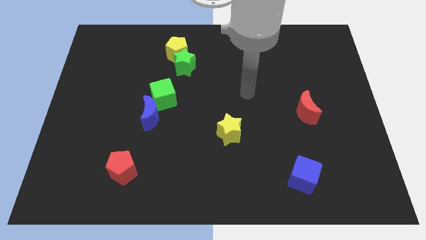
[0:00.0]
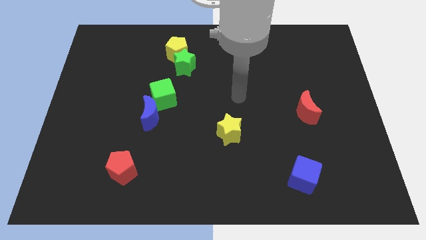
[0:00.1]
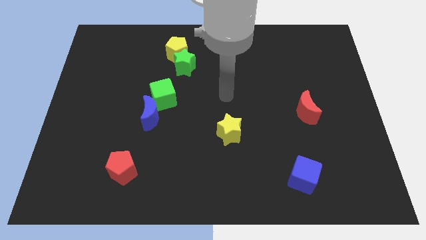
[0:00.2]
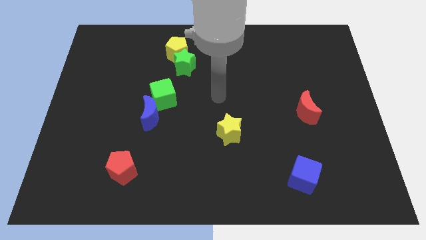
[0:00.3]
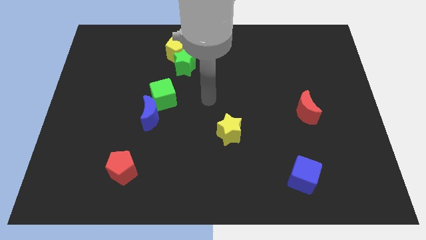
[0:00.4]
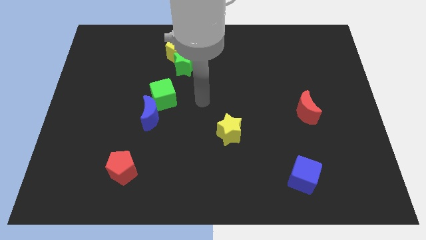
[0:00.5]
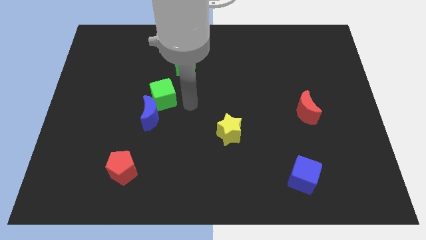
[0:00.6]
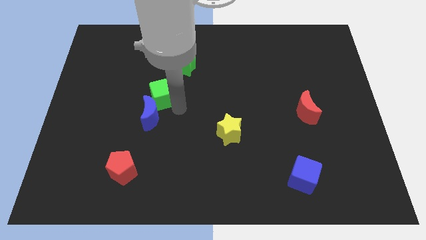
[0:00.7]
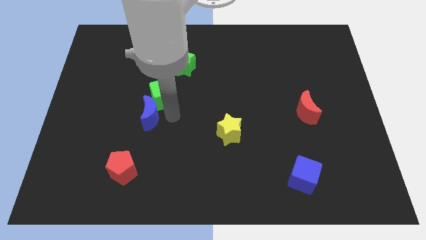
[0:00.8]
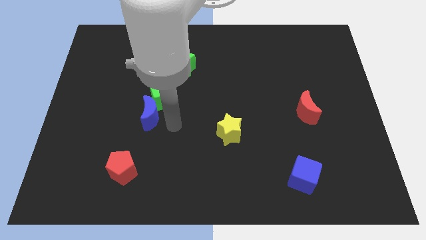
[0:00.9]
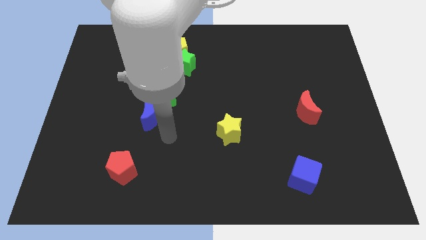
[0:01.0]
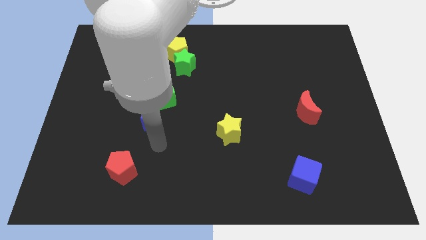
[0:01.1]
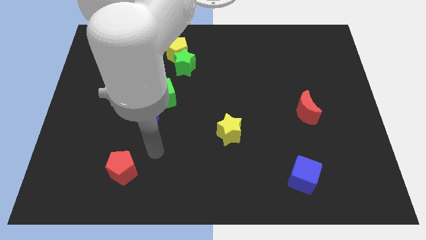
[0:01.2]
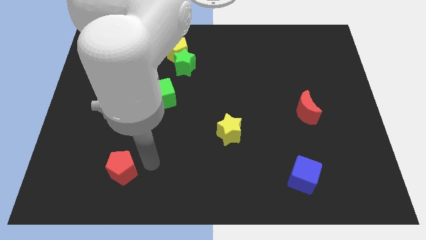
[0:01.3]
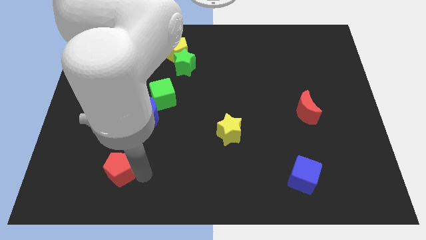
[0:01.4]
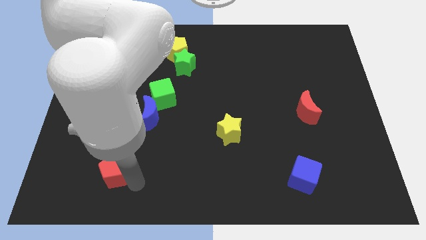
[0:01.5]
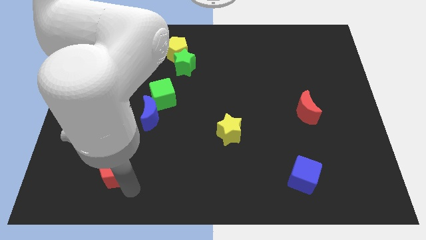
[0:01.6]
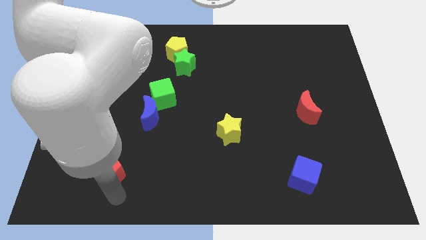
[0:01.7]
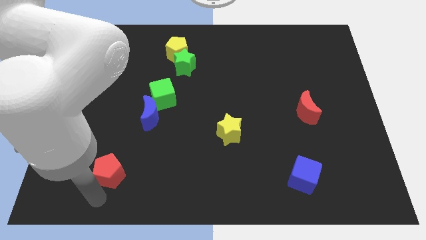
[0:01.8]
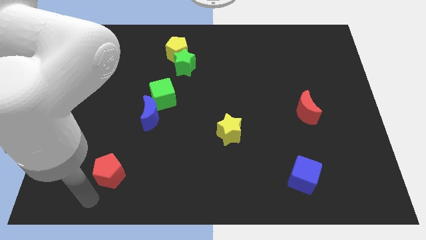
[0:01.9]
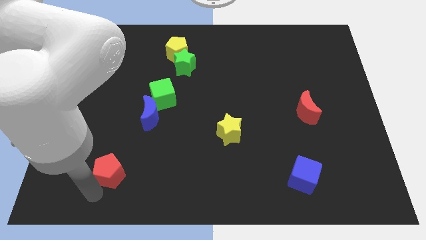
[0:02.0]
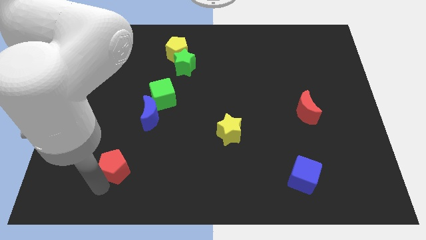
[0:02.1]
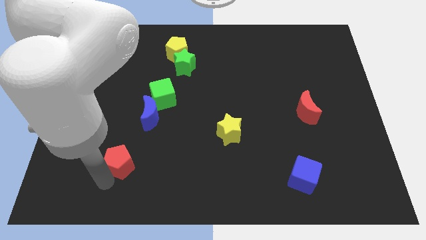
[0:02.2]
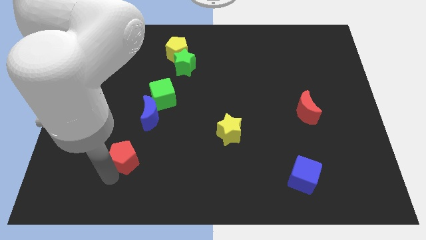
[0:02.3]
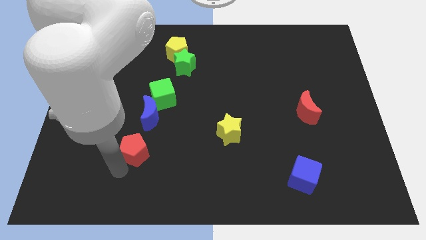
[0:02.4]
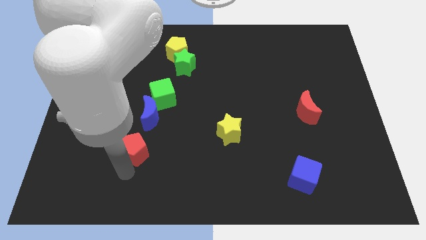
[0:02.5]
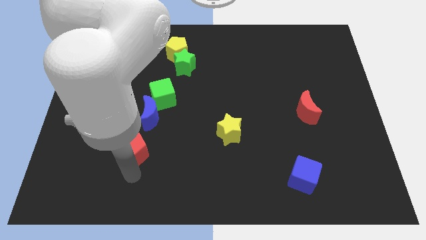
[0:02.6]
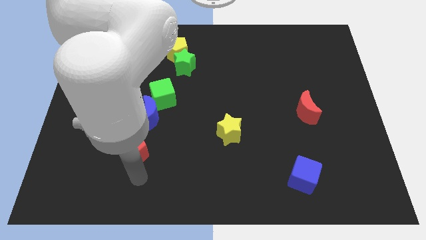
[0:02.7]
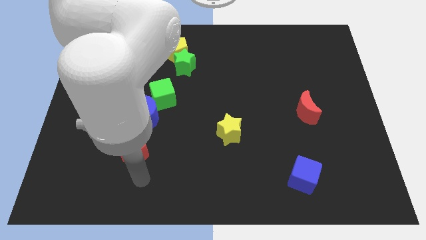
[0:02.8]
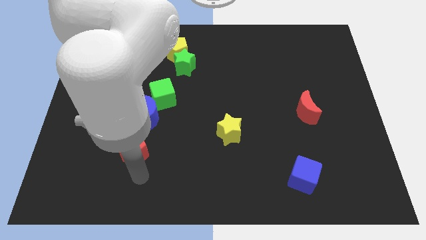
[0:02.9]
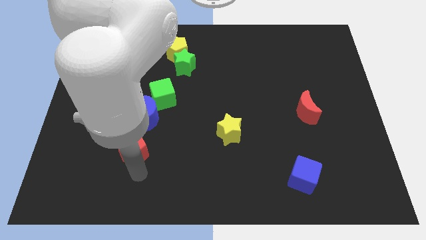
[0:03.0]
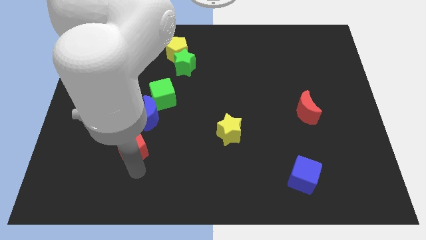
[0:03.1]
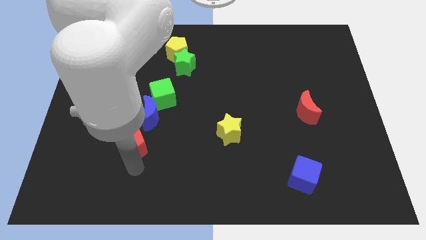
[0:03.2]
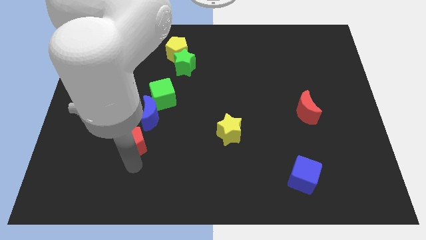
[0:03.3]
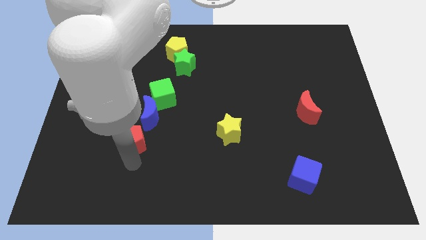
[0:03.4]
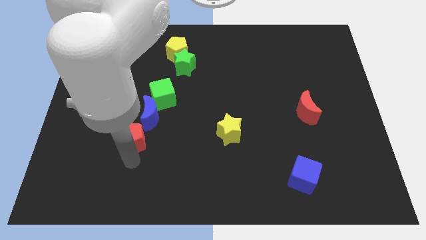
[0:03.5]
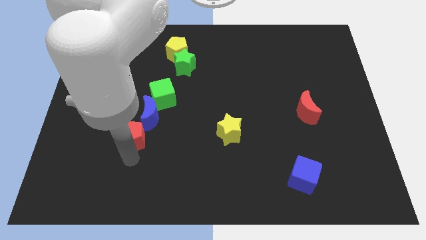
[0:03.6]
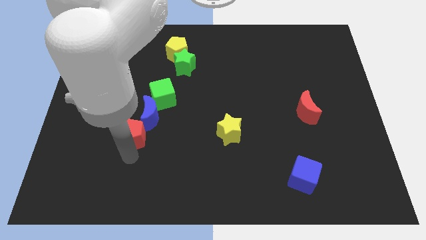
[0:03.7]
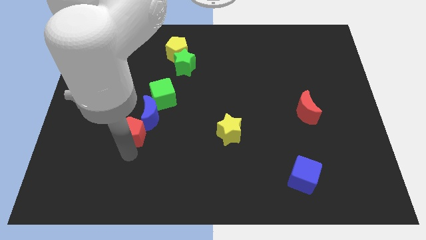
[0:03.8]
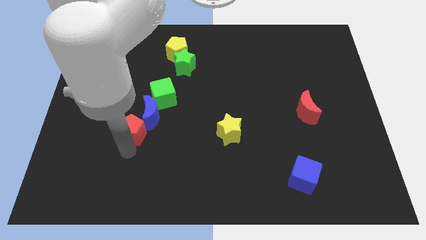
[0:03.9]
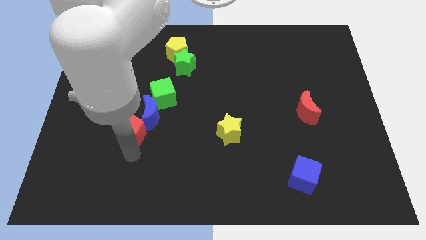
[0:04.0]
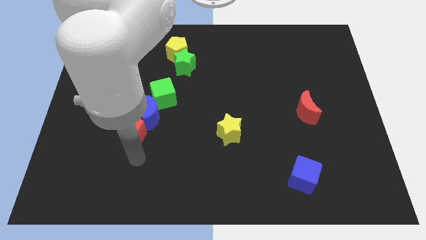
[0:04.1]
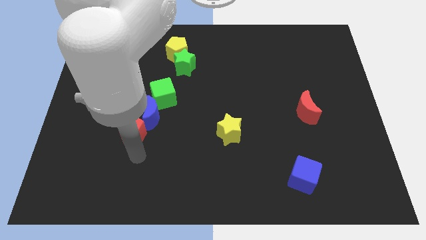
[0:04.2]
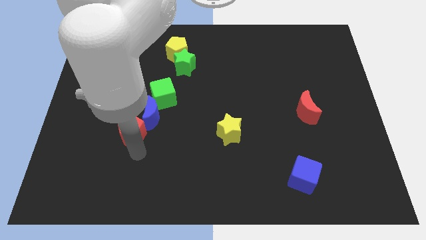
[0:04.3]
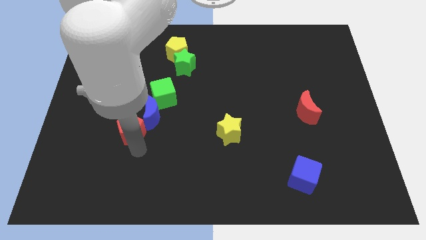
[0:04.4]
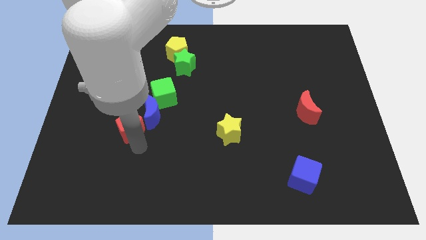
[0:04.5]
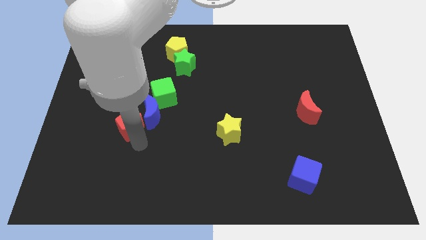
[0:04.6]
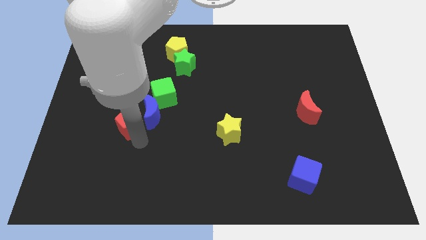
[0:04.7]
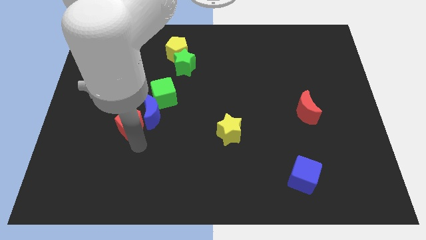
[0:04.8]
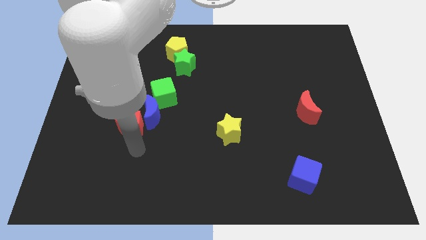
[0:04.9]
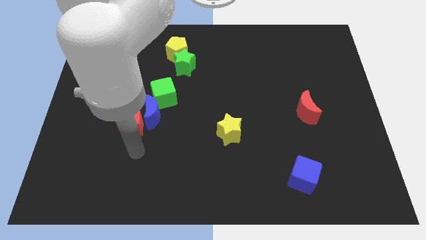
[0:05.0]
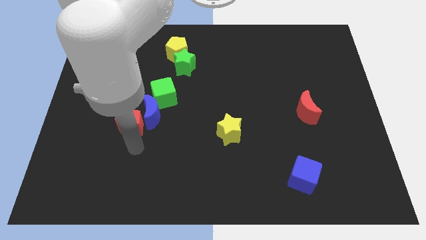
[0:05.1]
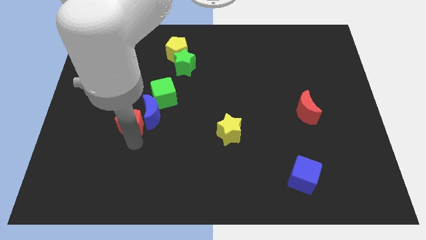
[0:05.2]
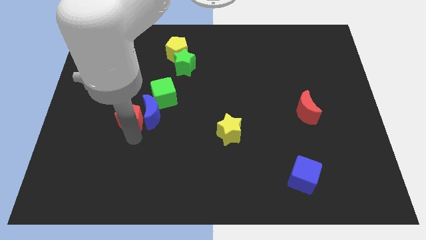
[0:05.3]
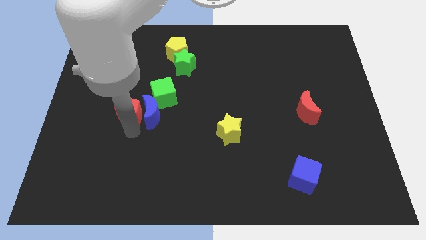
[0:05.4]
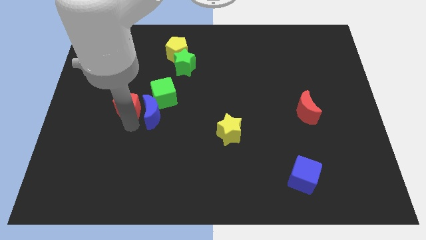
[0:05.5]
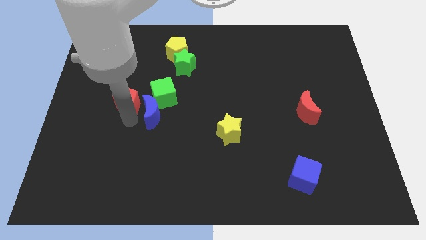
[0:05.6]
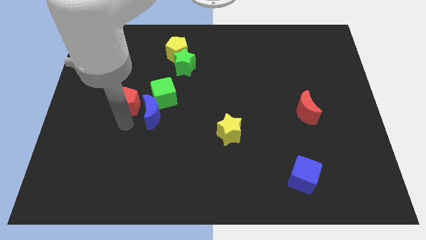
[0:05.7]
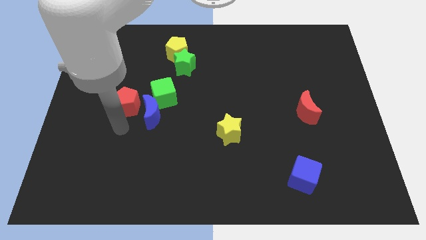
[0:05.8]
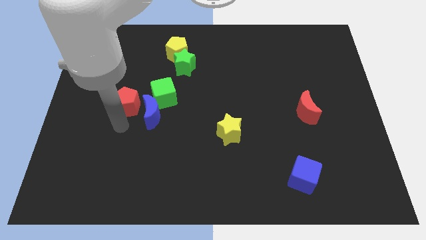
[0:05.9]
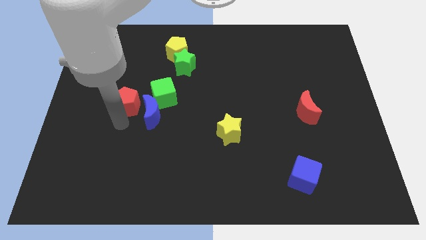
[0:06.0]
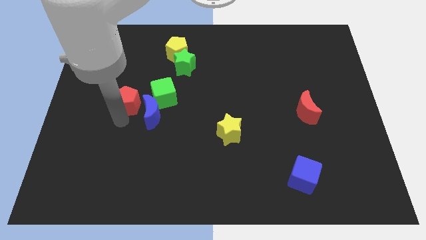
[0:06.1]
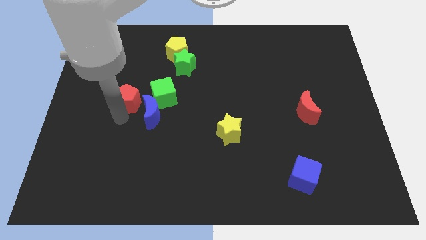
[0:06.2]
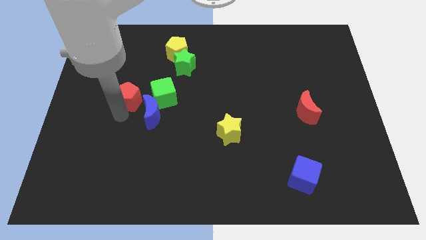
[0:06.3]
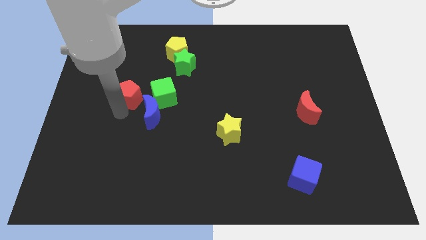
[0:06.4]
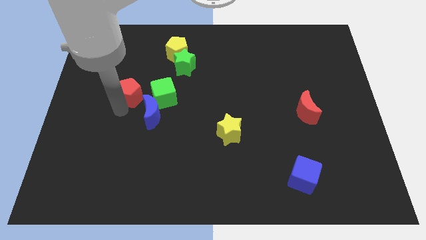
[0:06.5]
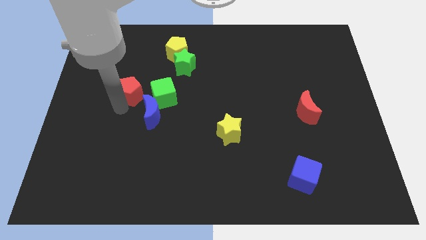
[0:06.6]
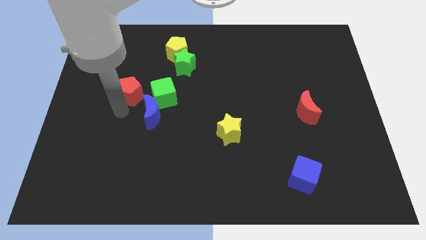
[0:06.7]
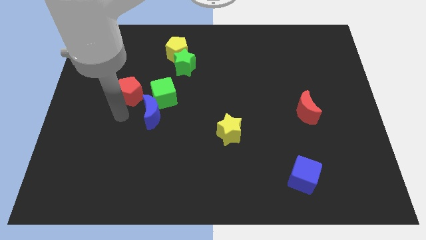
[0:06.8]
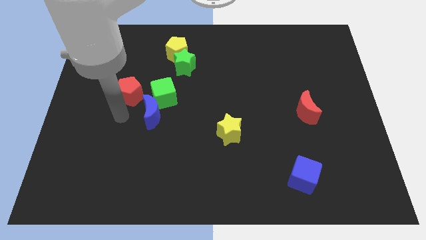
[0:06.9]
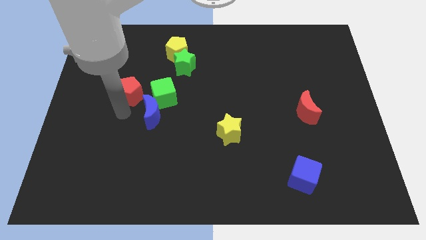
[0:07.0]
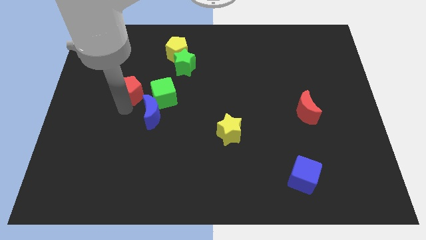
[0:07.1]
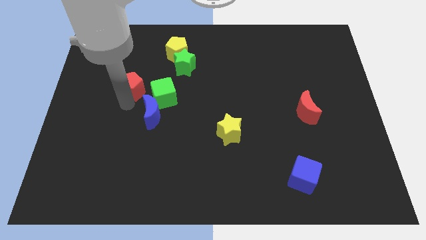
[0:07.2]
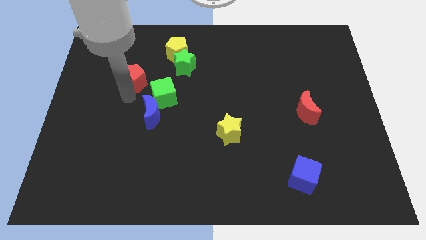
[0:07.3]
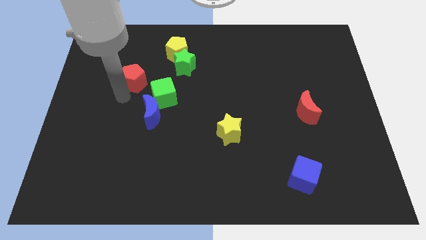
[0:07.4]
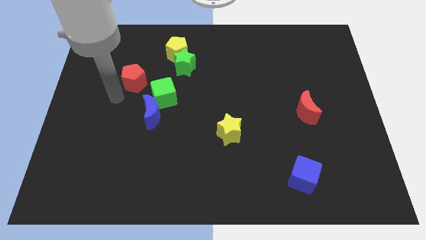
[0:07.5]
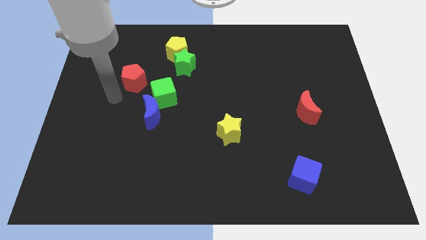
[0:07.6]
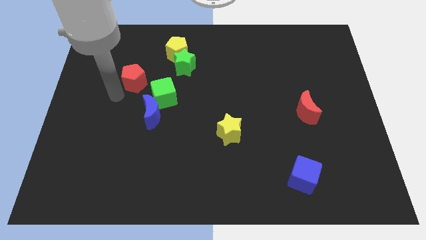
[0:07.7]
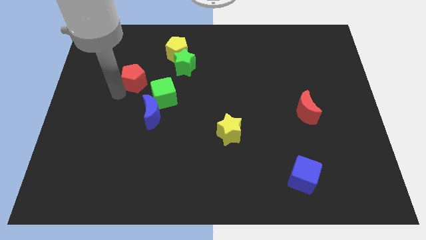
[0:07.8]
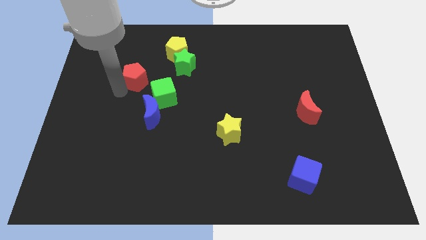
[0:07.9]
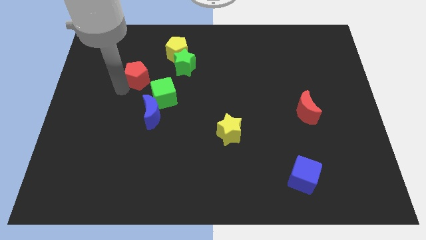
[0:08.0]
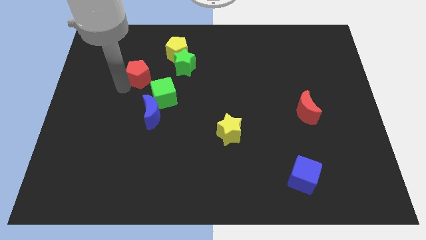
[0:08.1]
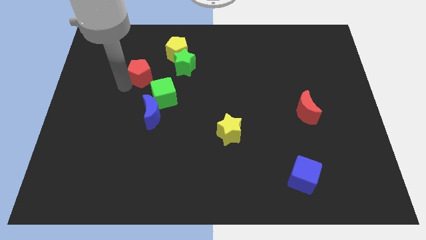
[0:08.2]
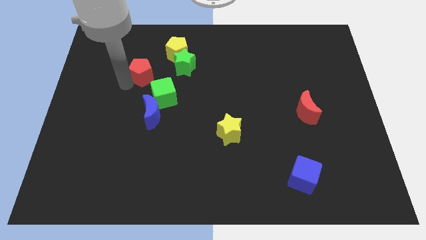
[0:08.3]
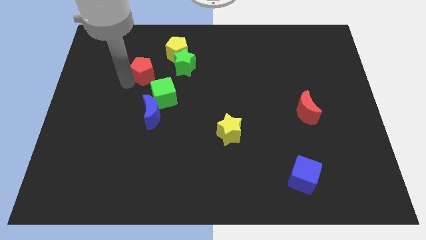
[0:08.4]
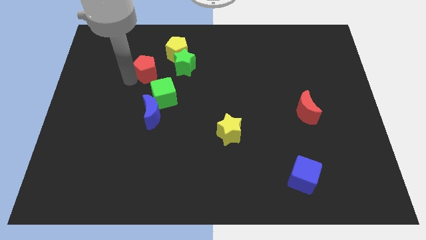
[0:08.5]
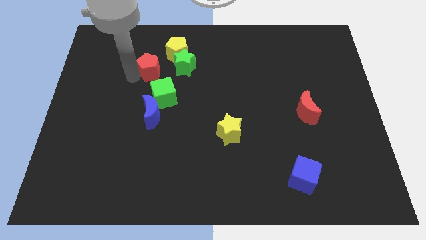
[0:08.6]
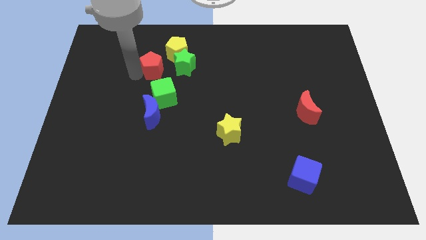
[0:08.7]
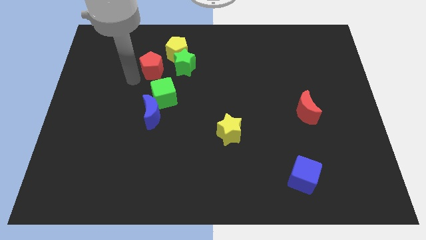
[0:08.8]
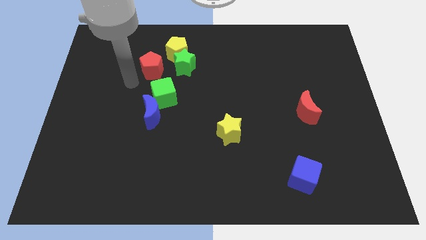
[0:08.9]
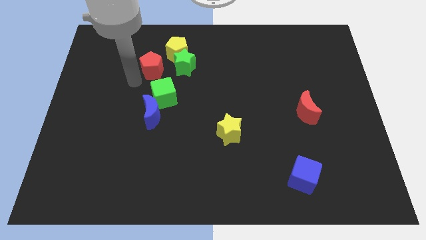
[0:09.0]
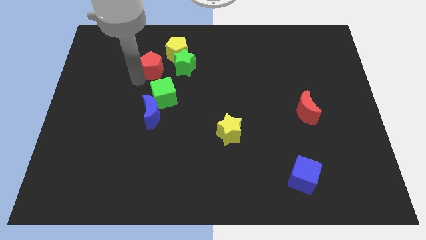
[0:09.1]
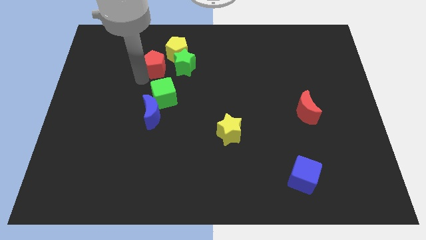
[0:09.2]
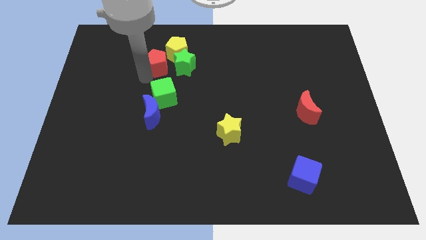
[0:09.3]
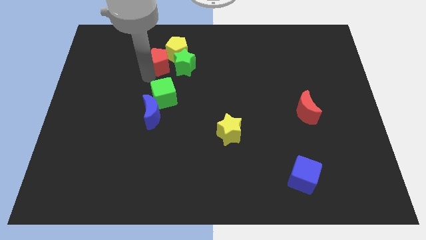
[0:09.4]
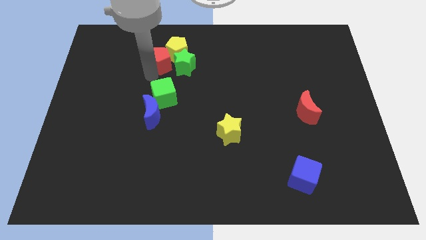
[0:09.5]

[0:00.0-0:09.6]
put the red pentagon towards the yellow pentagon
